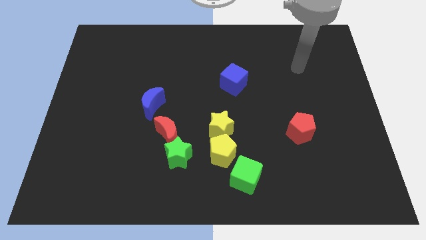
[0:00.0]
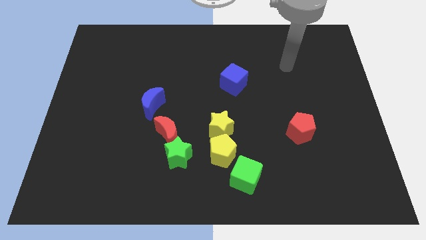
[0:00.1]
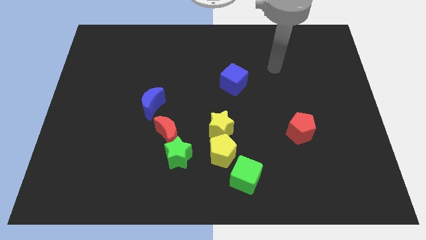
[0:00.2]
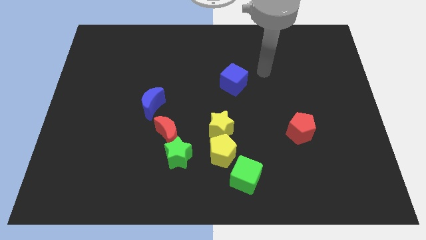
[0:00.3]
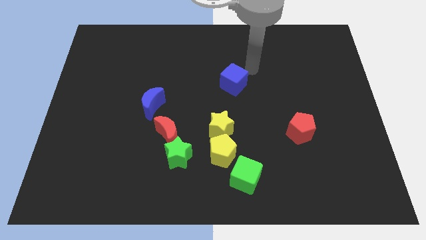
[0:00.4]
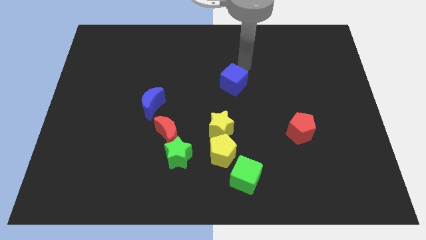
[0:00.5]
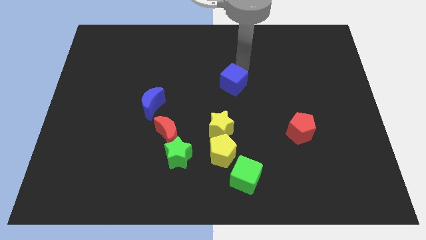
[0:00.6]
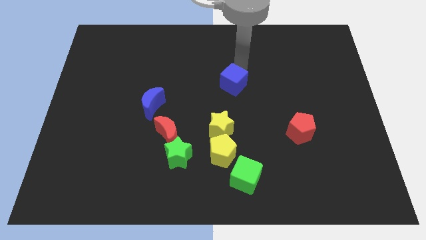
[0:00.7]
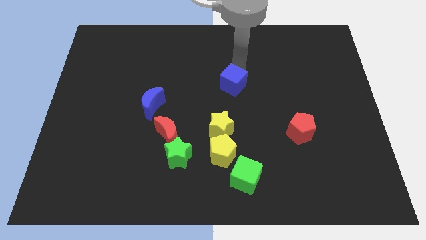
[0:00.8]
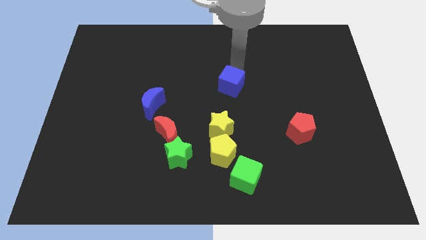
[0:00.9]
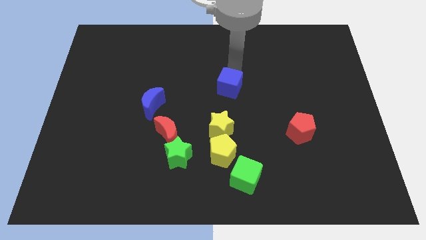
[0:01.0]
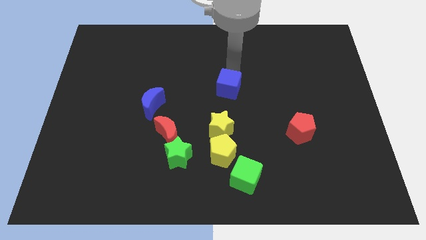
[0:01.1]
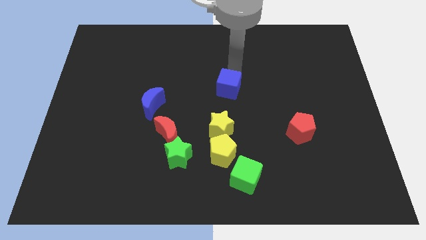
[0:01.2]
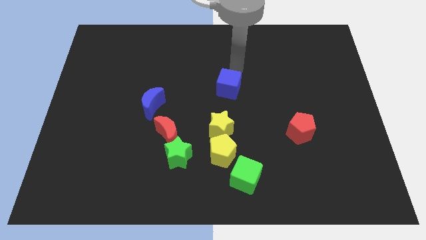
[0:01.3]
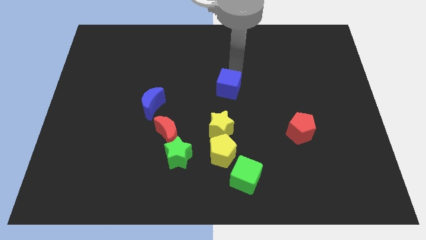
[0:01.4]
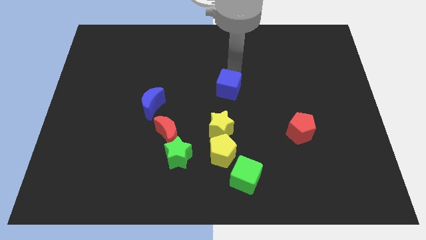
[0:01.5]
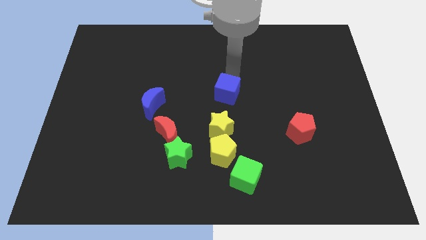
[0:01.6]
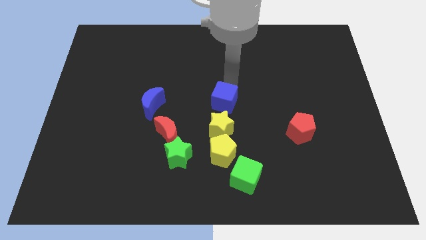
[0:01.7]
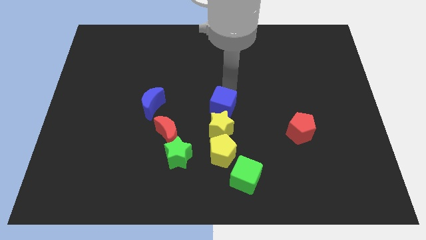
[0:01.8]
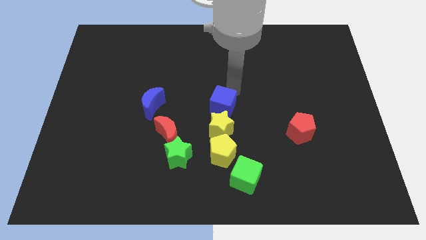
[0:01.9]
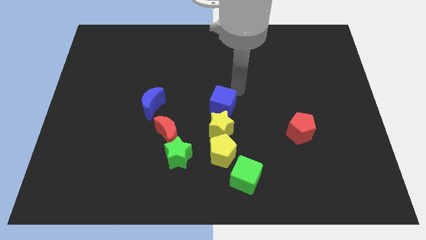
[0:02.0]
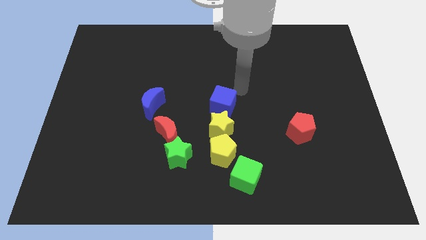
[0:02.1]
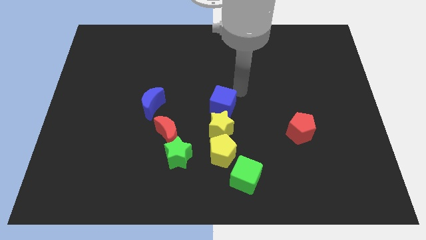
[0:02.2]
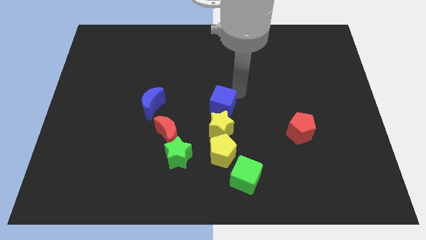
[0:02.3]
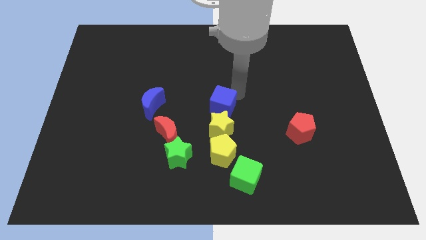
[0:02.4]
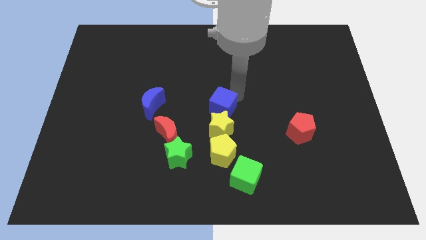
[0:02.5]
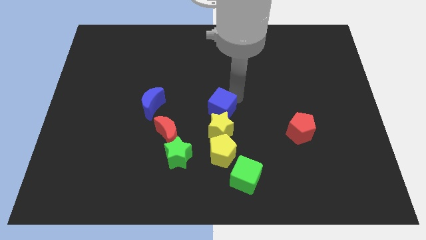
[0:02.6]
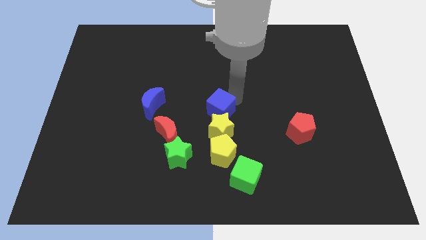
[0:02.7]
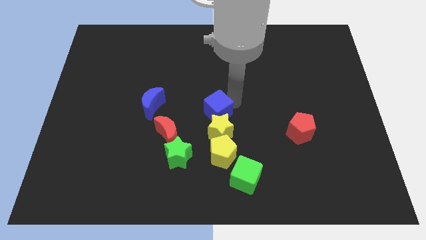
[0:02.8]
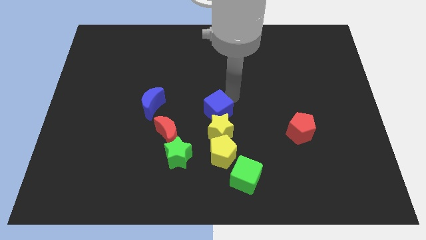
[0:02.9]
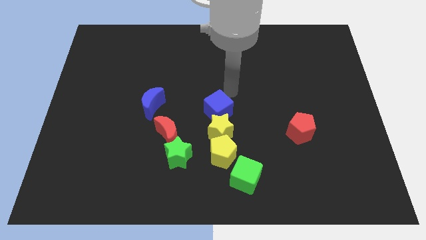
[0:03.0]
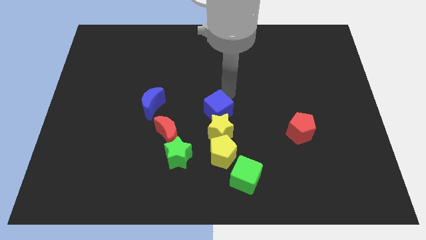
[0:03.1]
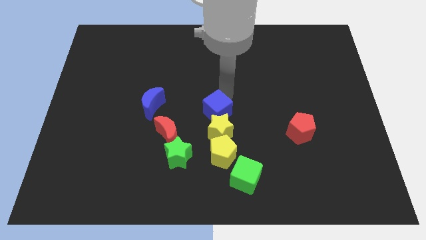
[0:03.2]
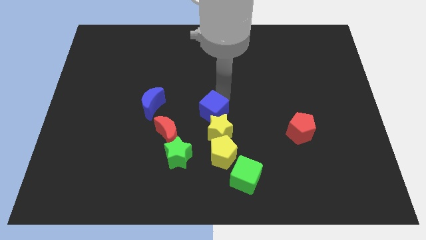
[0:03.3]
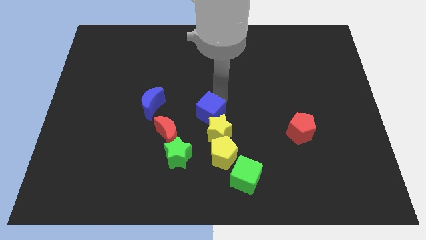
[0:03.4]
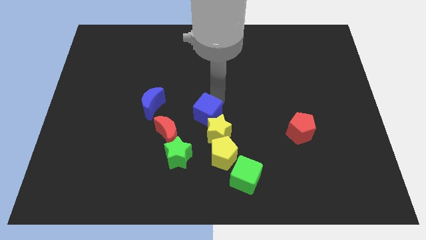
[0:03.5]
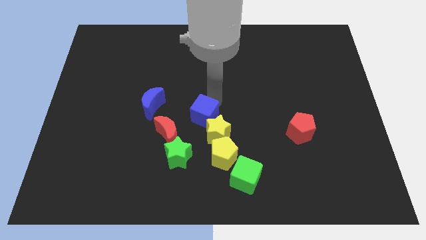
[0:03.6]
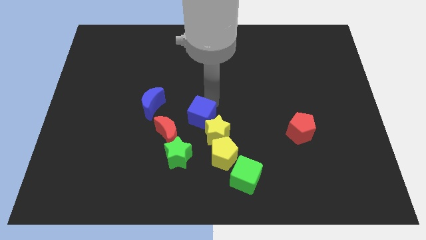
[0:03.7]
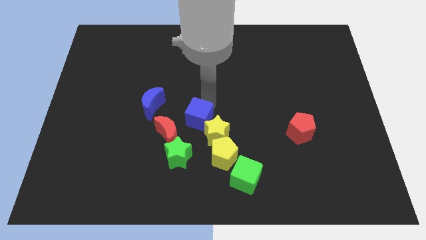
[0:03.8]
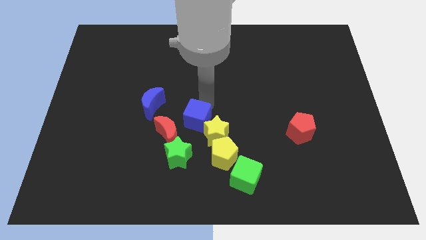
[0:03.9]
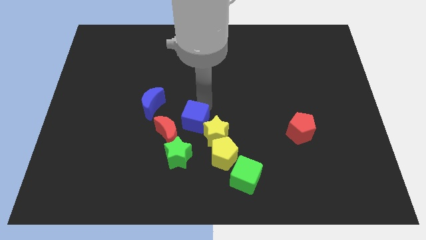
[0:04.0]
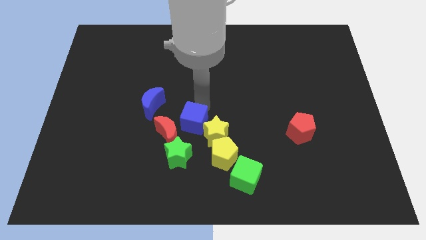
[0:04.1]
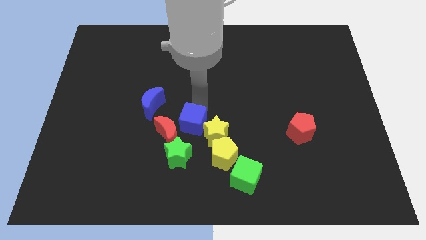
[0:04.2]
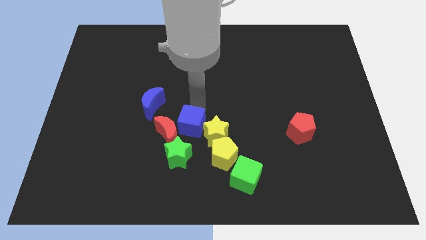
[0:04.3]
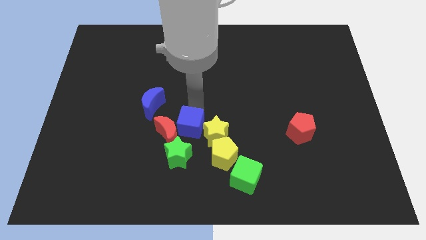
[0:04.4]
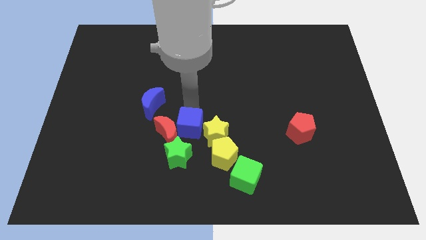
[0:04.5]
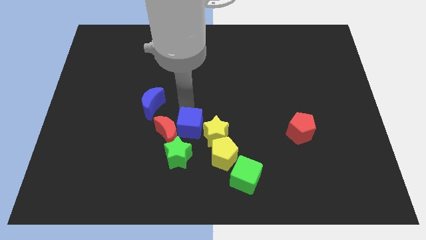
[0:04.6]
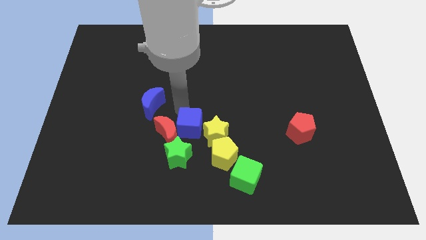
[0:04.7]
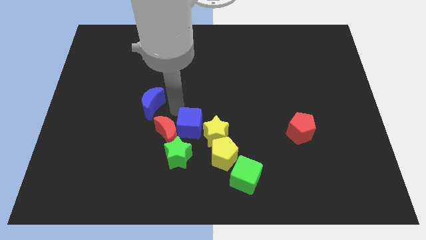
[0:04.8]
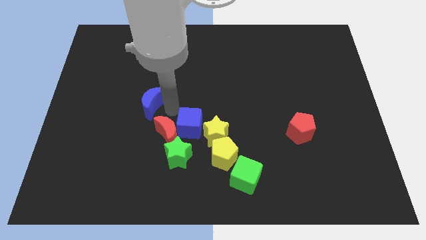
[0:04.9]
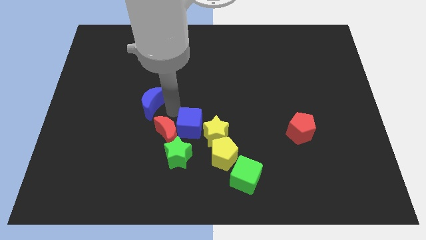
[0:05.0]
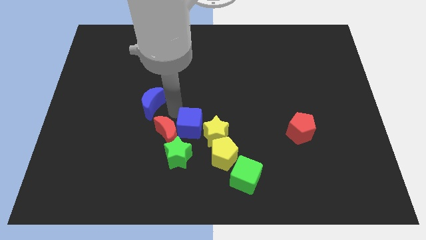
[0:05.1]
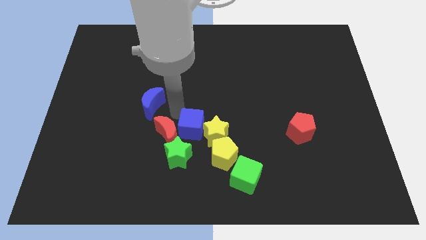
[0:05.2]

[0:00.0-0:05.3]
move the blue cube diagonally down and to the right of the red moon

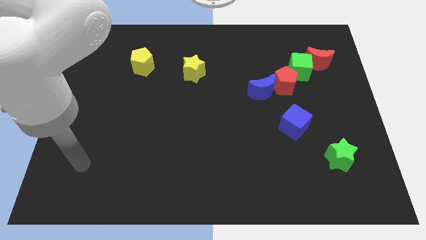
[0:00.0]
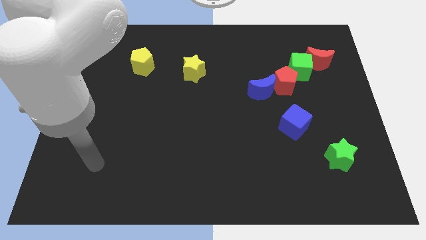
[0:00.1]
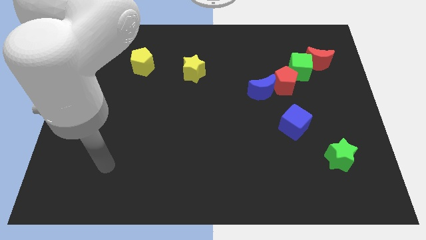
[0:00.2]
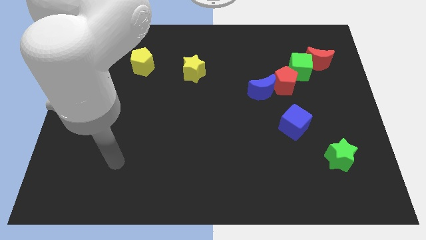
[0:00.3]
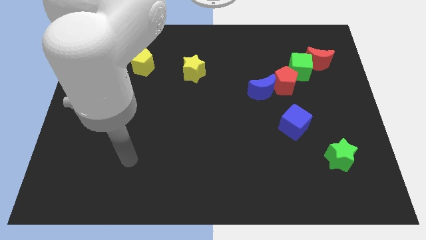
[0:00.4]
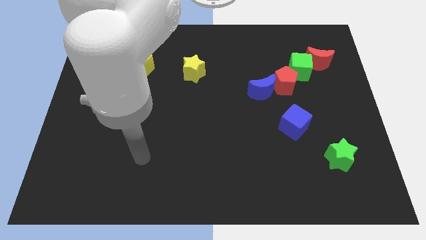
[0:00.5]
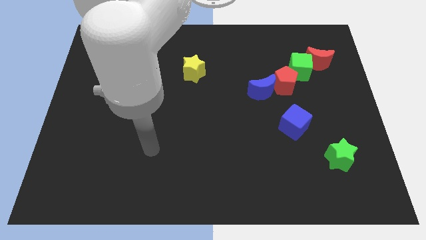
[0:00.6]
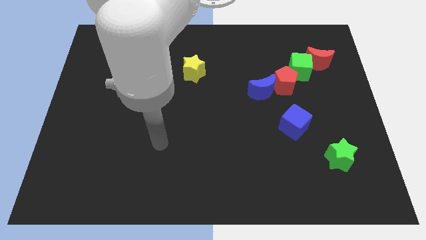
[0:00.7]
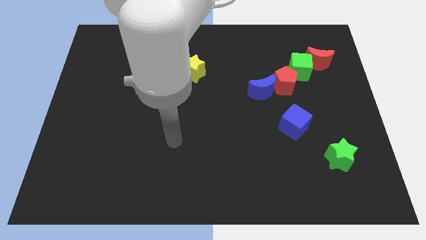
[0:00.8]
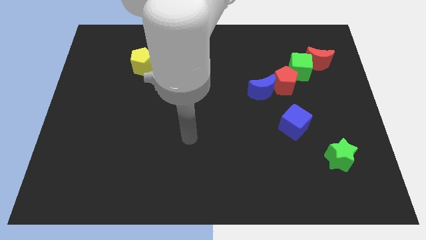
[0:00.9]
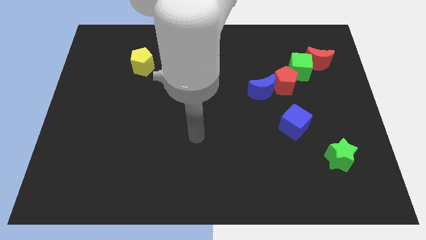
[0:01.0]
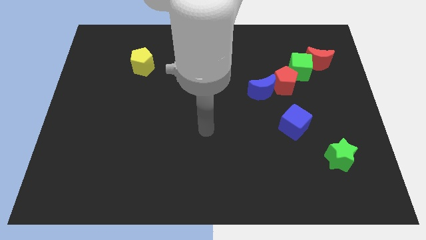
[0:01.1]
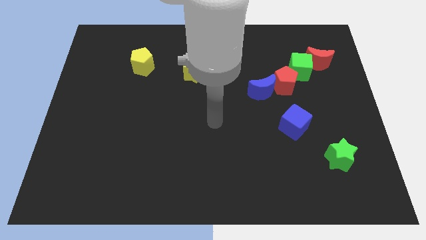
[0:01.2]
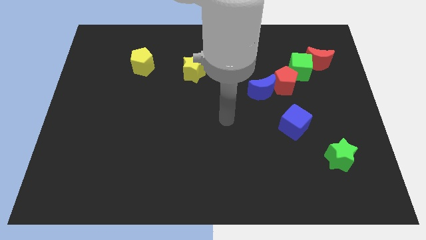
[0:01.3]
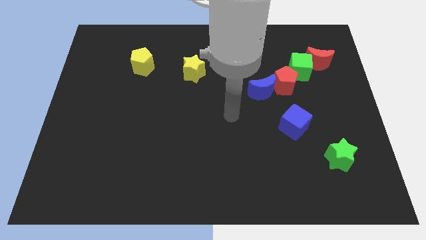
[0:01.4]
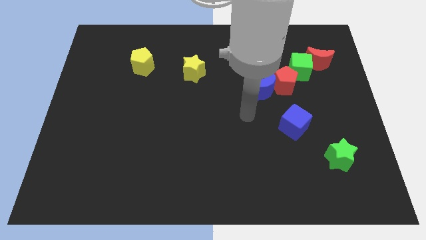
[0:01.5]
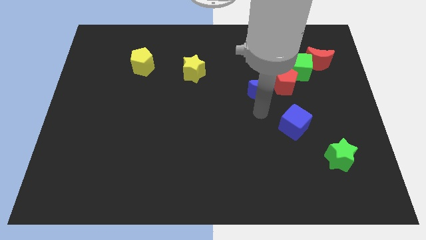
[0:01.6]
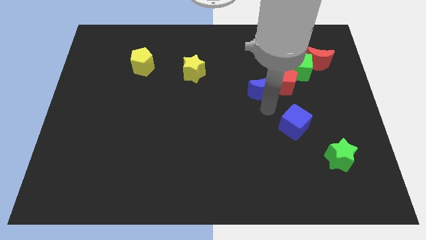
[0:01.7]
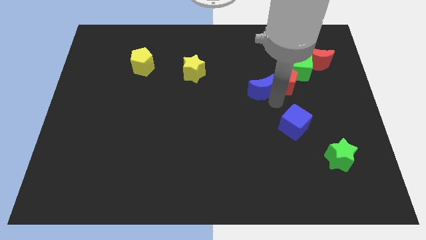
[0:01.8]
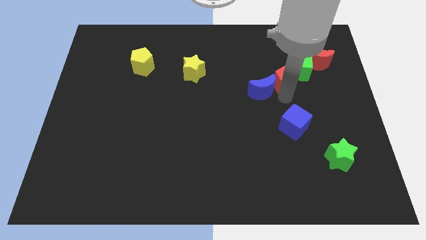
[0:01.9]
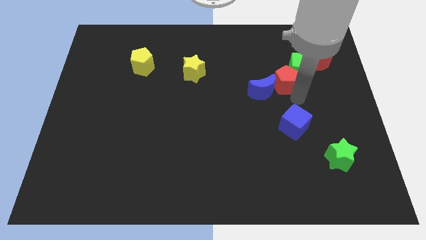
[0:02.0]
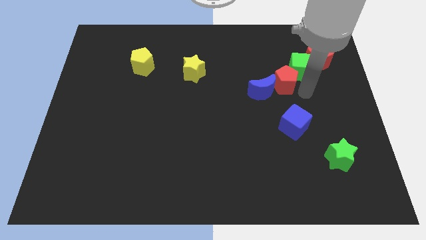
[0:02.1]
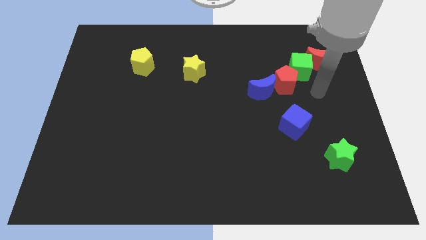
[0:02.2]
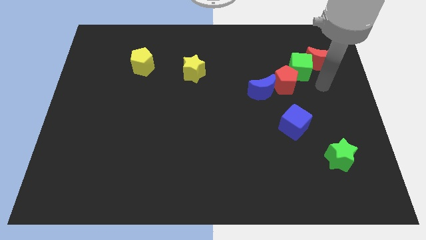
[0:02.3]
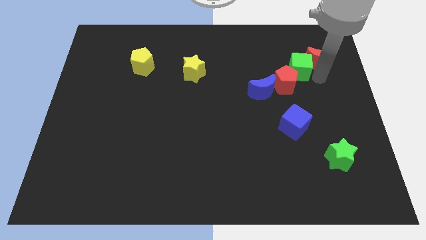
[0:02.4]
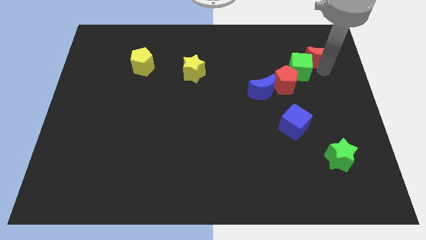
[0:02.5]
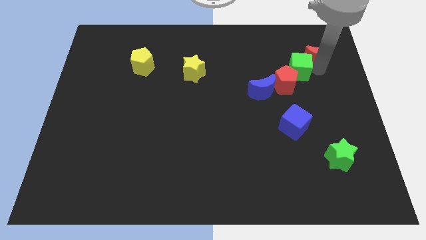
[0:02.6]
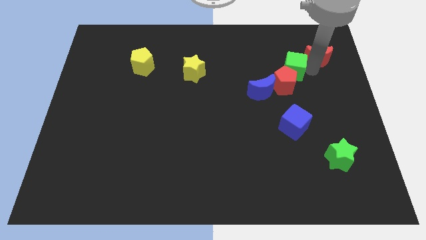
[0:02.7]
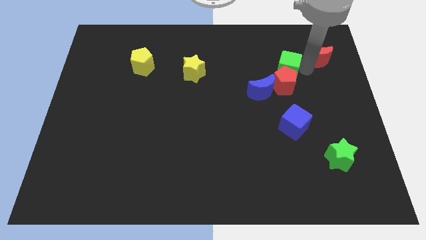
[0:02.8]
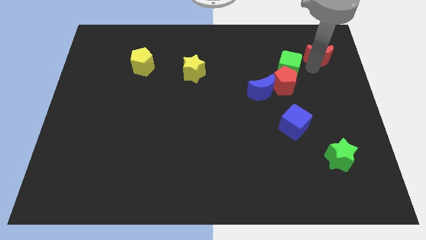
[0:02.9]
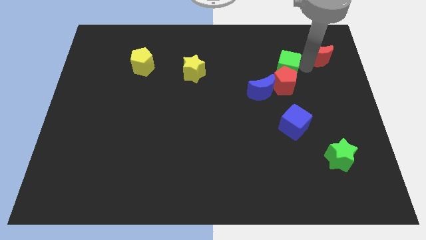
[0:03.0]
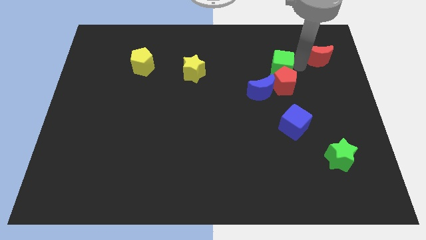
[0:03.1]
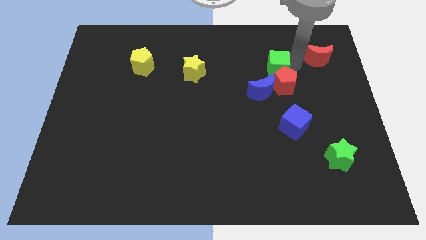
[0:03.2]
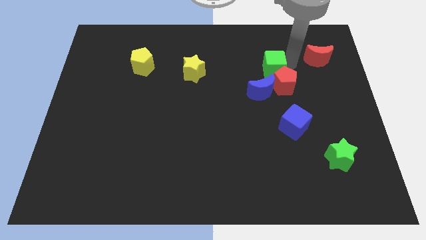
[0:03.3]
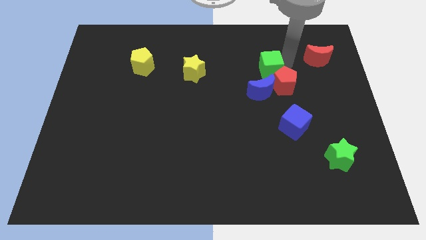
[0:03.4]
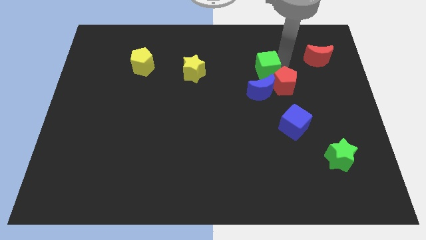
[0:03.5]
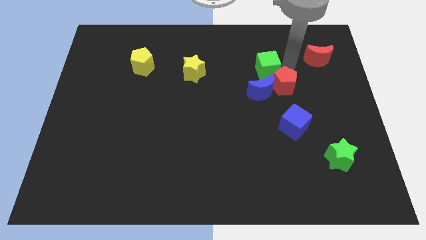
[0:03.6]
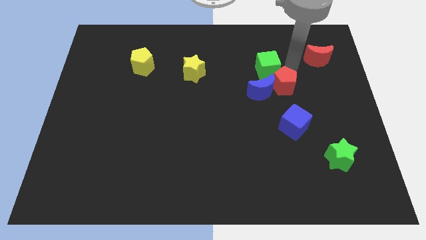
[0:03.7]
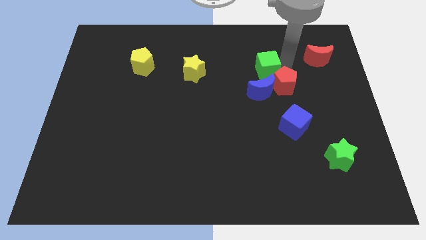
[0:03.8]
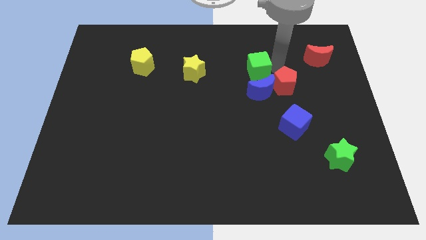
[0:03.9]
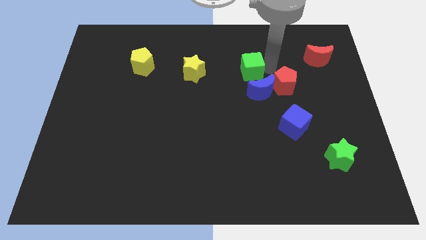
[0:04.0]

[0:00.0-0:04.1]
put the green cube right of the yellow star
